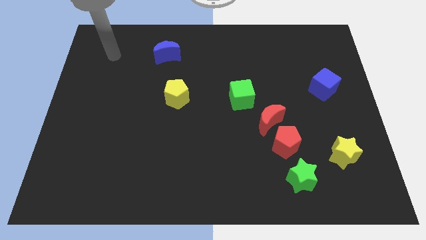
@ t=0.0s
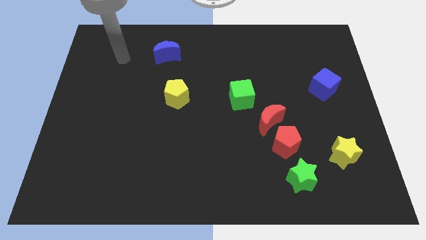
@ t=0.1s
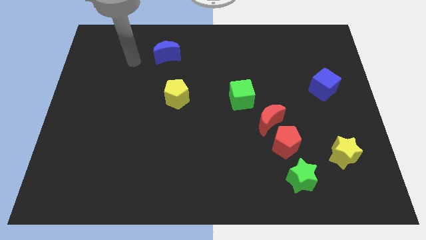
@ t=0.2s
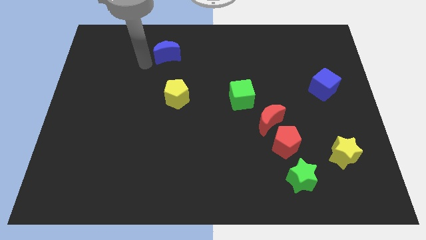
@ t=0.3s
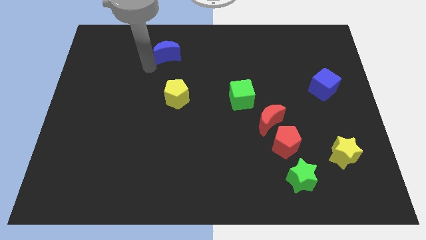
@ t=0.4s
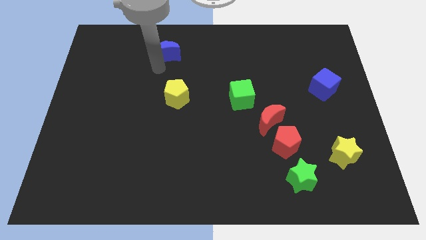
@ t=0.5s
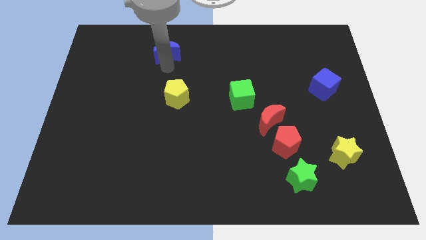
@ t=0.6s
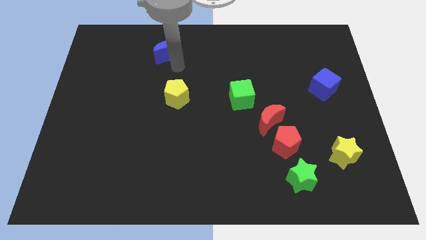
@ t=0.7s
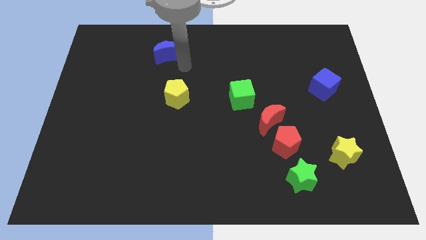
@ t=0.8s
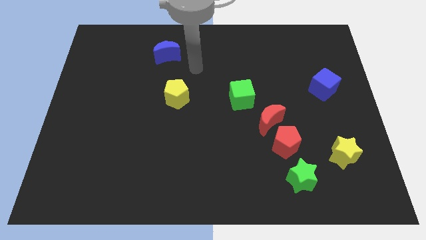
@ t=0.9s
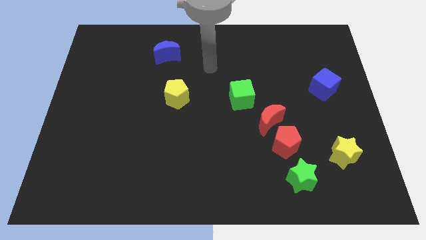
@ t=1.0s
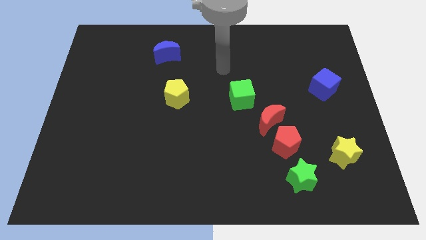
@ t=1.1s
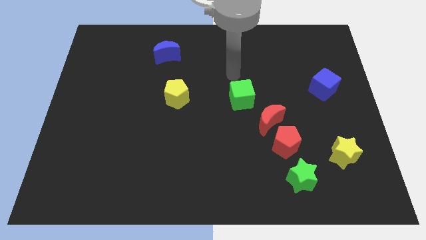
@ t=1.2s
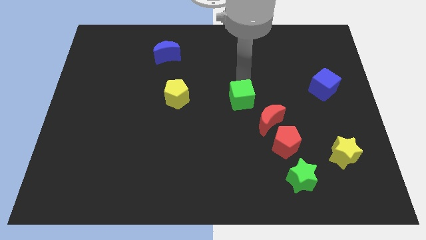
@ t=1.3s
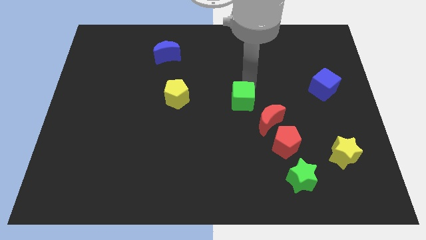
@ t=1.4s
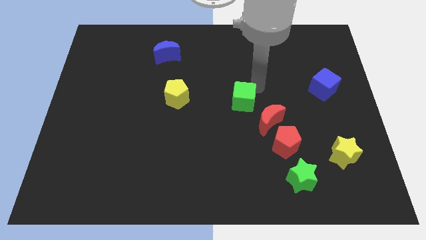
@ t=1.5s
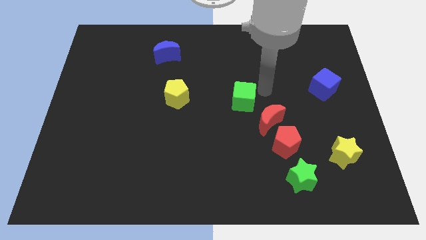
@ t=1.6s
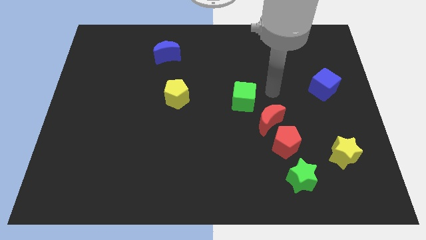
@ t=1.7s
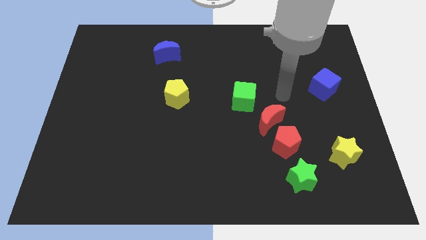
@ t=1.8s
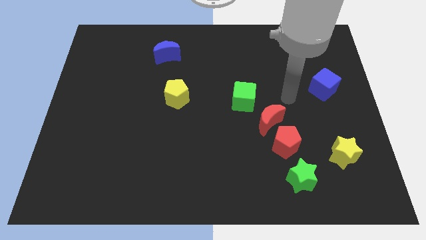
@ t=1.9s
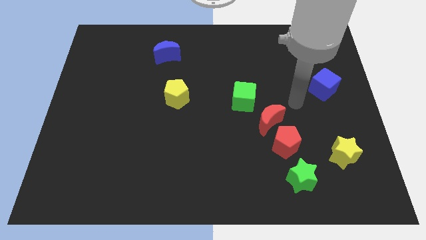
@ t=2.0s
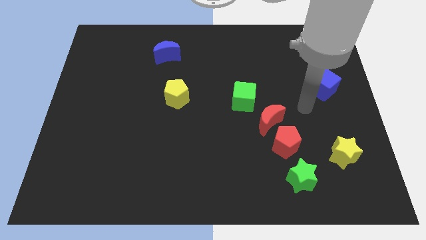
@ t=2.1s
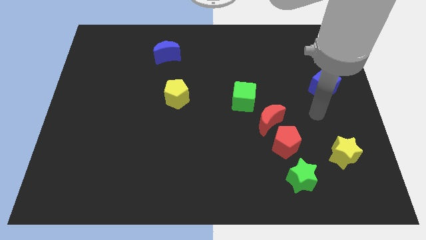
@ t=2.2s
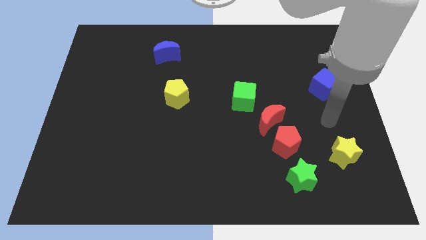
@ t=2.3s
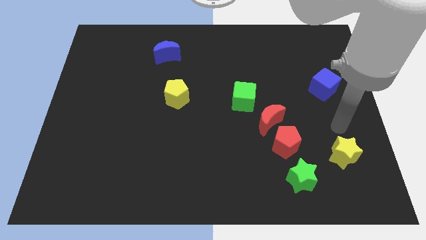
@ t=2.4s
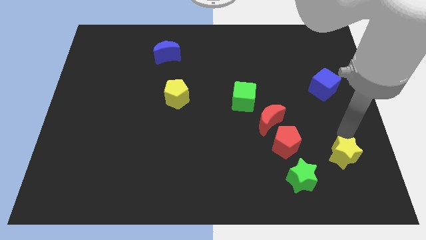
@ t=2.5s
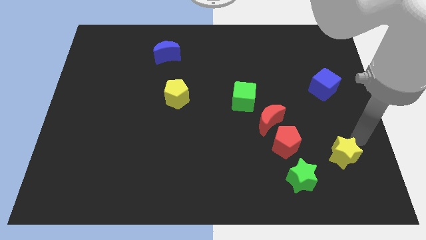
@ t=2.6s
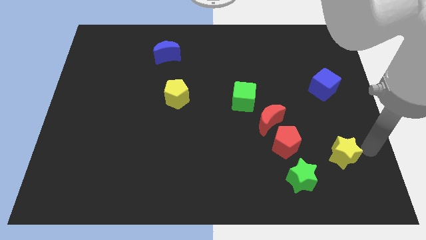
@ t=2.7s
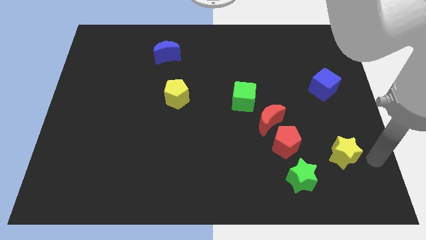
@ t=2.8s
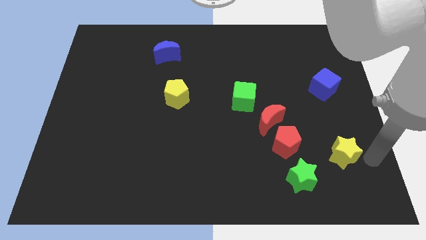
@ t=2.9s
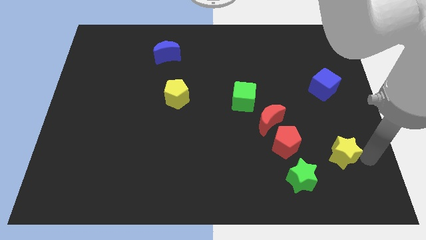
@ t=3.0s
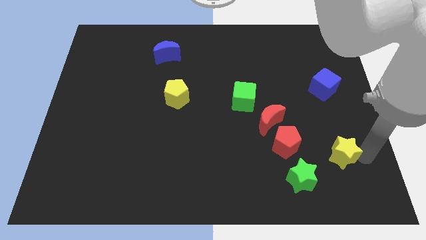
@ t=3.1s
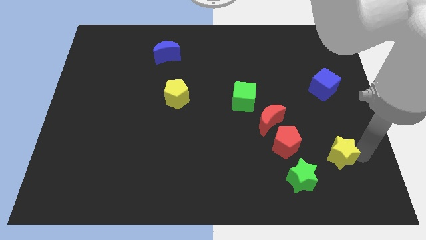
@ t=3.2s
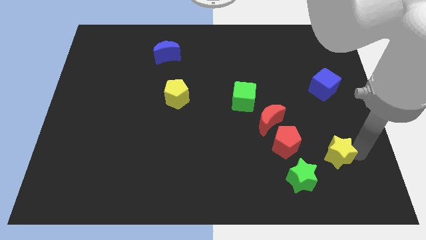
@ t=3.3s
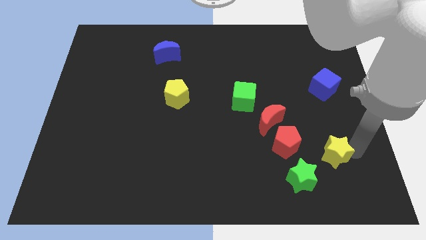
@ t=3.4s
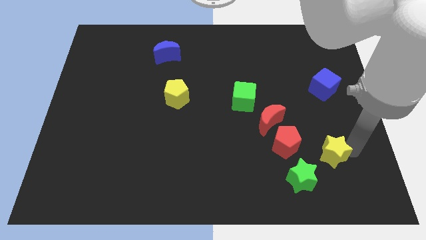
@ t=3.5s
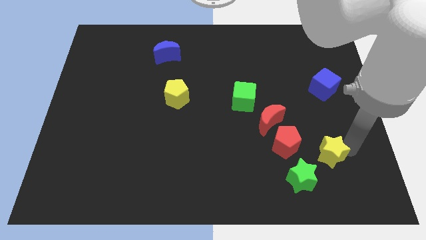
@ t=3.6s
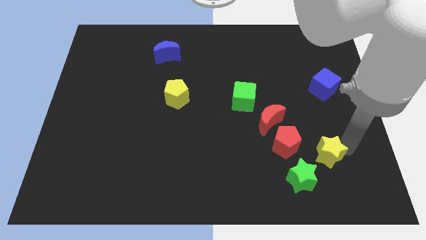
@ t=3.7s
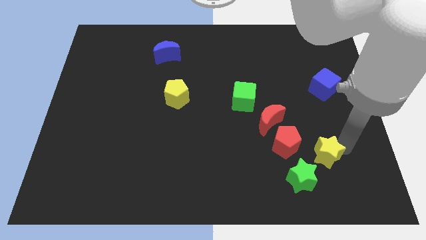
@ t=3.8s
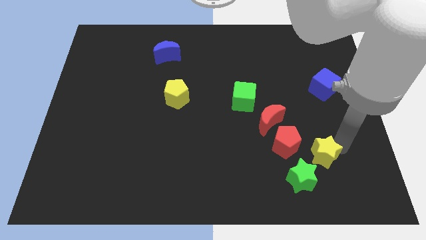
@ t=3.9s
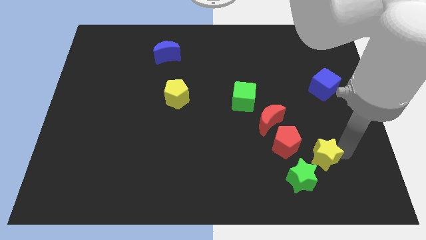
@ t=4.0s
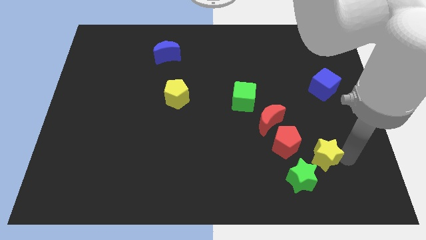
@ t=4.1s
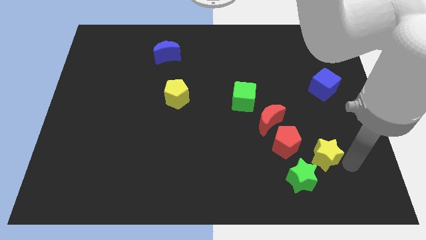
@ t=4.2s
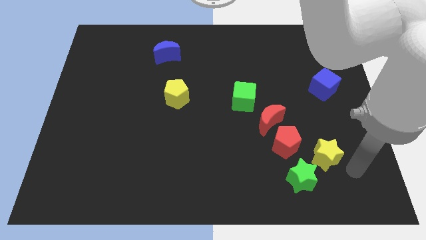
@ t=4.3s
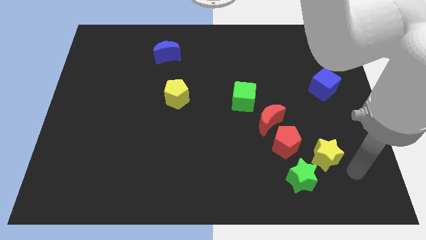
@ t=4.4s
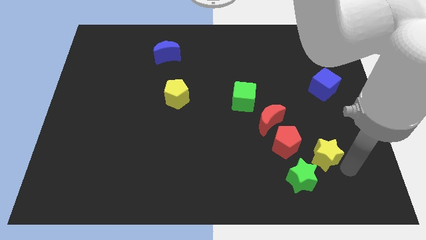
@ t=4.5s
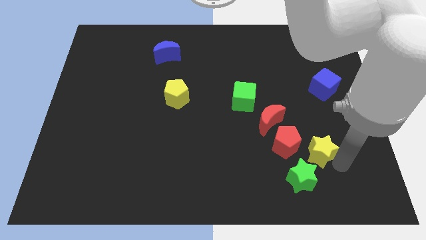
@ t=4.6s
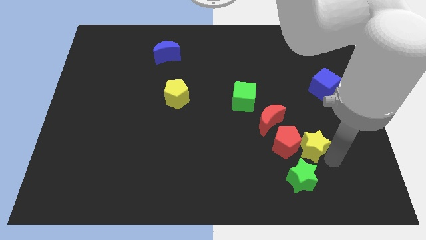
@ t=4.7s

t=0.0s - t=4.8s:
move the yellow star diagonally down and to the right of the red moon

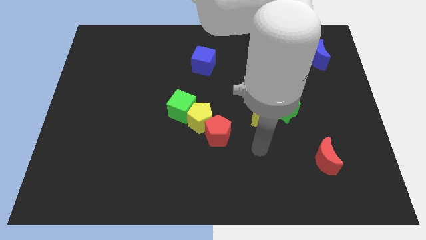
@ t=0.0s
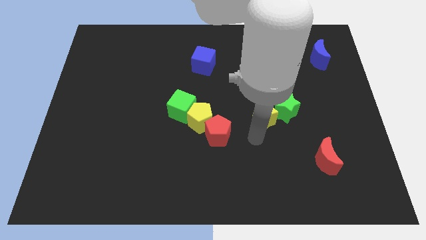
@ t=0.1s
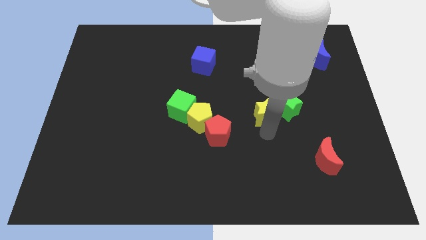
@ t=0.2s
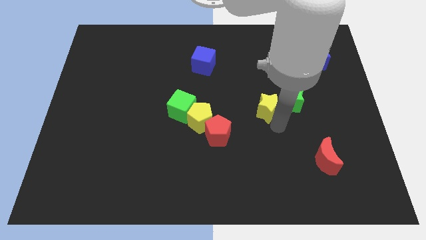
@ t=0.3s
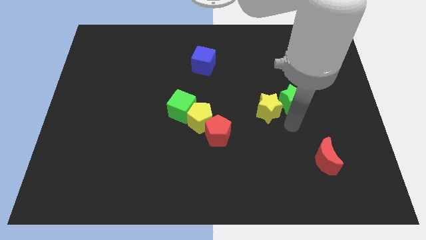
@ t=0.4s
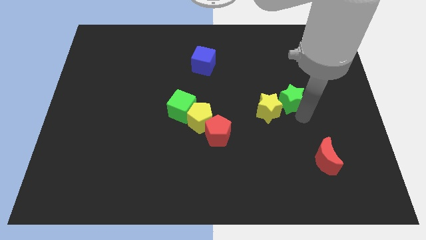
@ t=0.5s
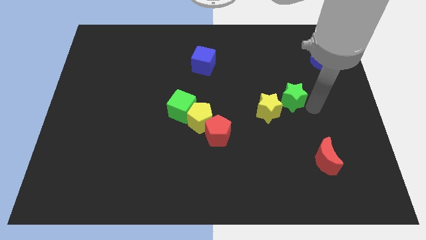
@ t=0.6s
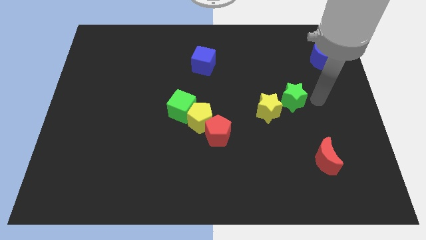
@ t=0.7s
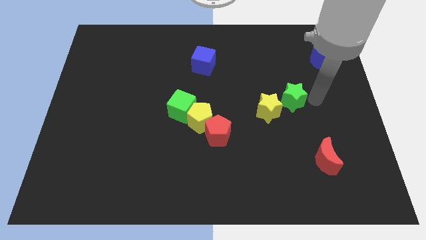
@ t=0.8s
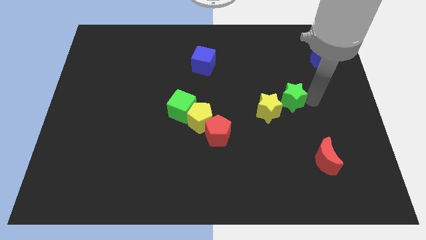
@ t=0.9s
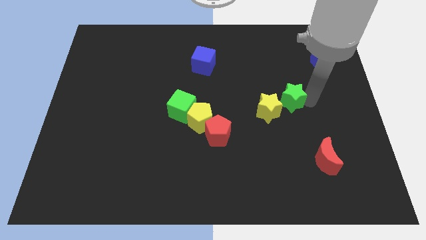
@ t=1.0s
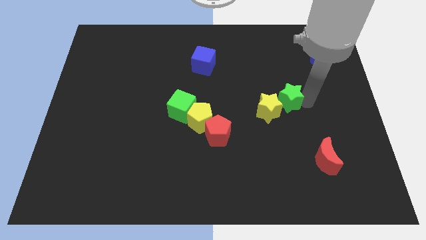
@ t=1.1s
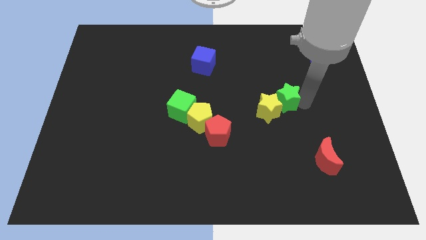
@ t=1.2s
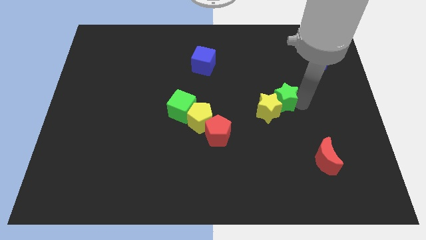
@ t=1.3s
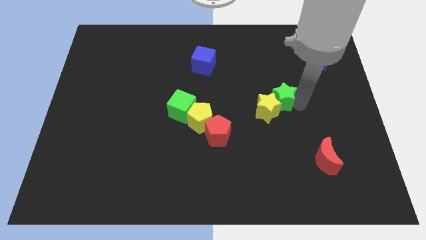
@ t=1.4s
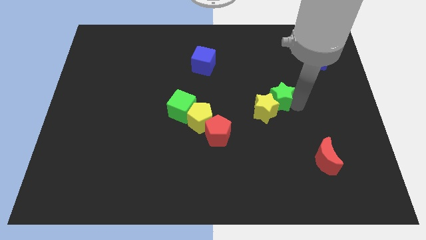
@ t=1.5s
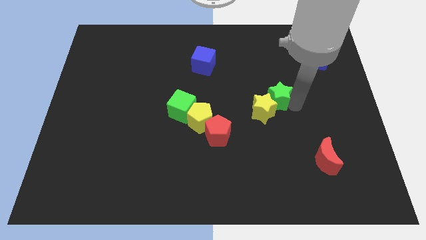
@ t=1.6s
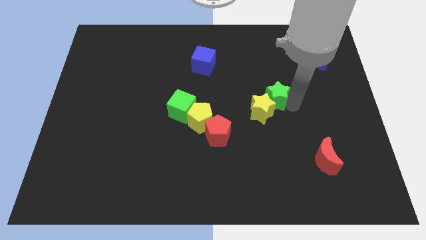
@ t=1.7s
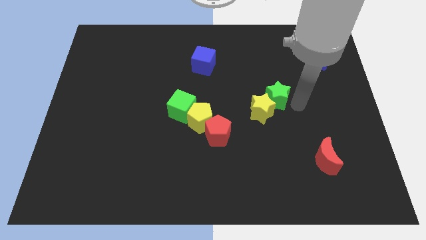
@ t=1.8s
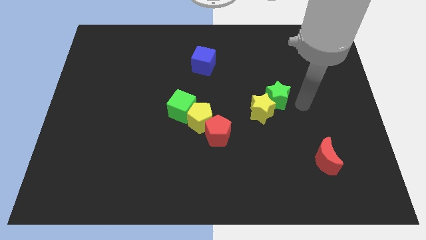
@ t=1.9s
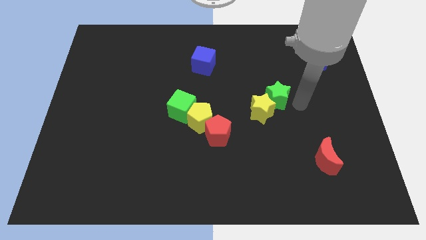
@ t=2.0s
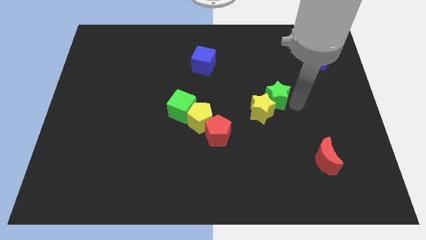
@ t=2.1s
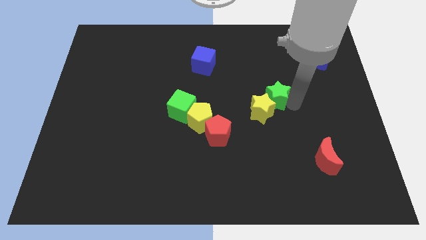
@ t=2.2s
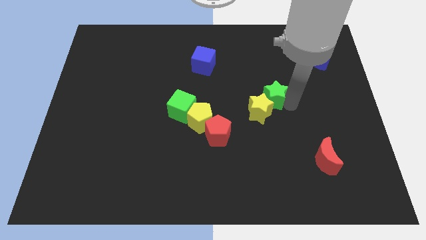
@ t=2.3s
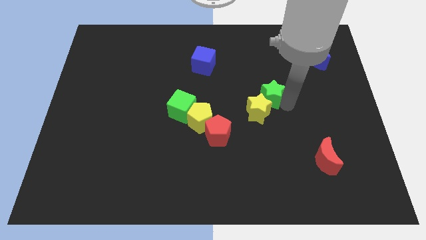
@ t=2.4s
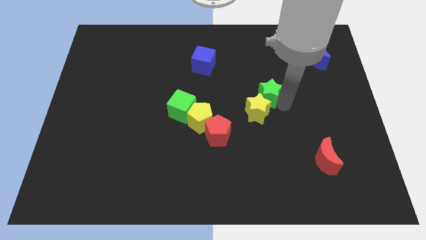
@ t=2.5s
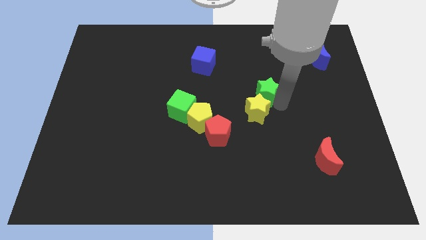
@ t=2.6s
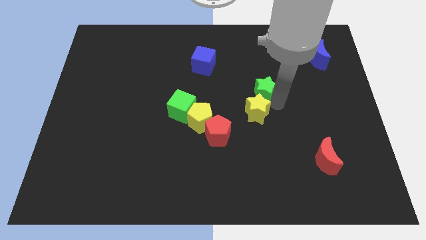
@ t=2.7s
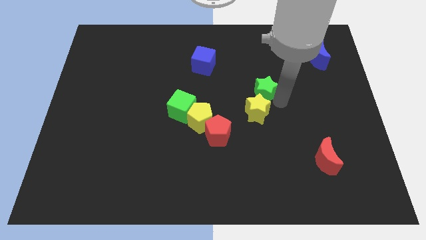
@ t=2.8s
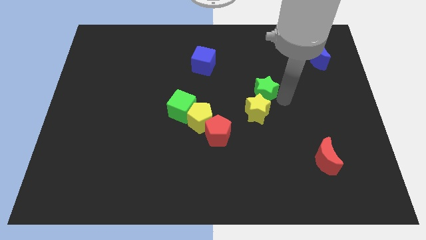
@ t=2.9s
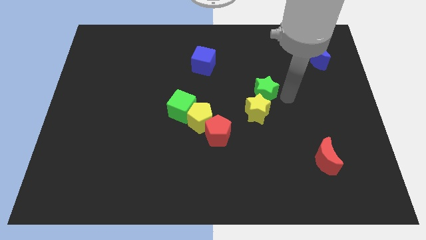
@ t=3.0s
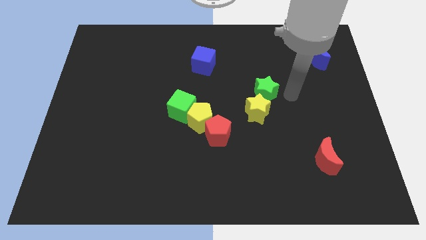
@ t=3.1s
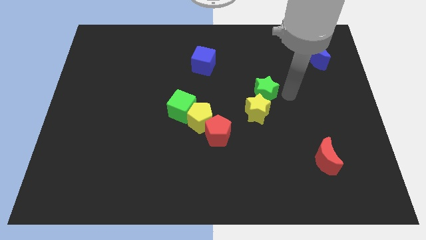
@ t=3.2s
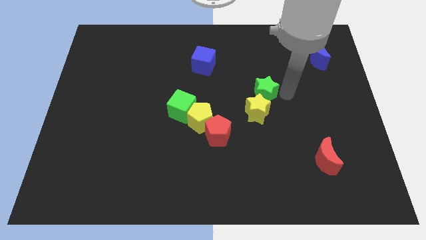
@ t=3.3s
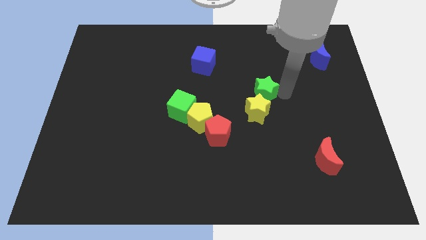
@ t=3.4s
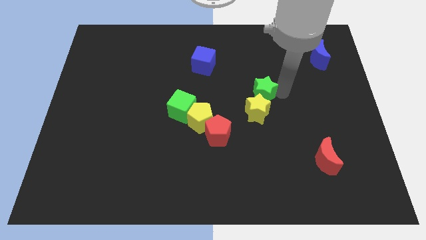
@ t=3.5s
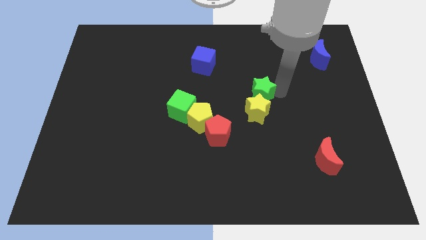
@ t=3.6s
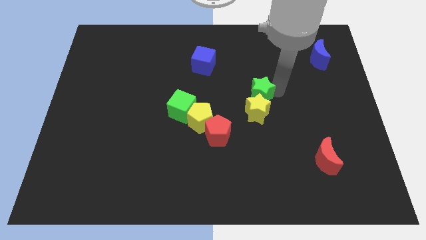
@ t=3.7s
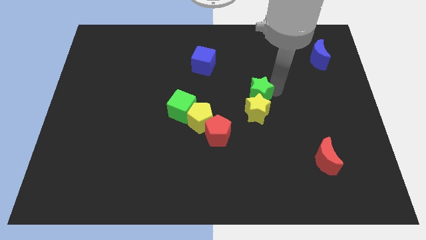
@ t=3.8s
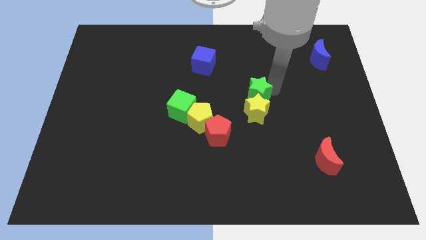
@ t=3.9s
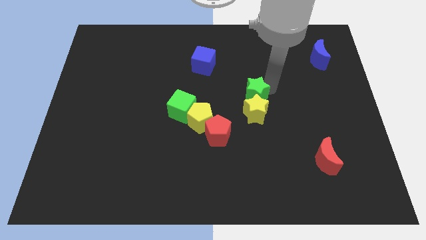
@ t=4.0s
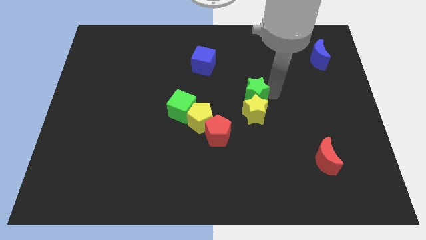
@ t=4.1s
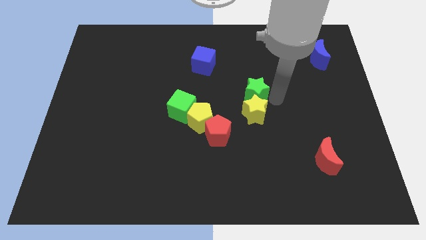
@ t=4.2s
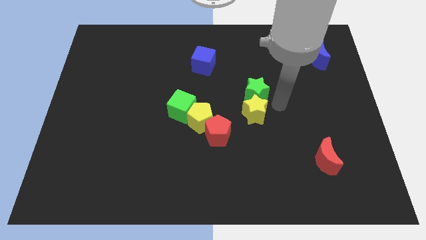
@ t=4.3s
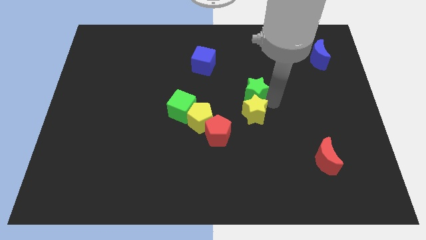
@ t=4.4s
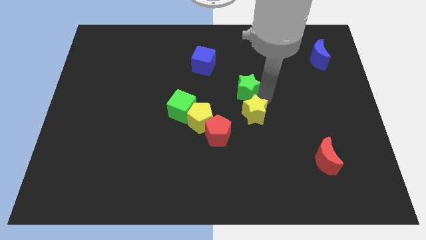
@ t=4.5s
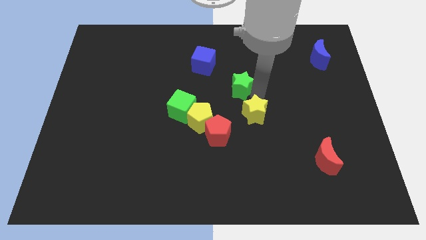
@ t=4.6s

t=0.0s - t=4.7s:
push the green star to the bottom right of the blue cube
